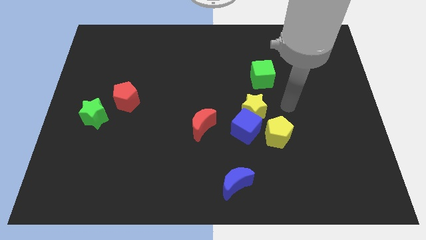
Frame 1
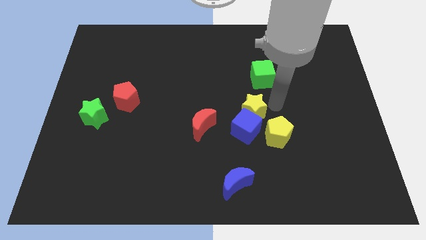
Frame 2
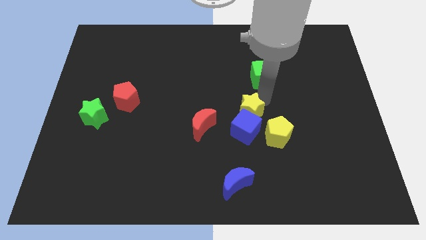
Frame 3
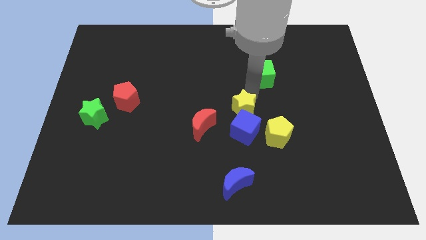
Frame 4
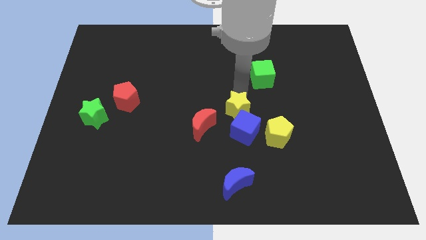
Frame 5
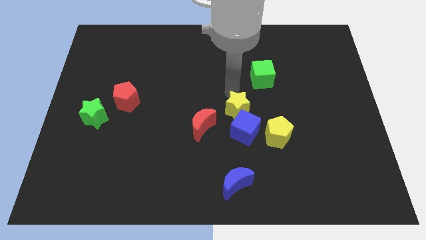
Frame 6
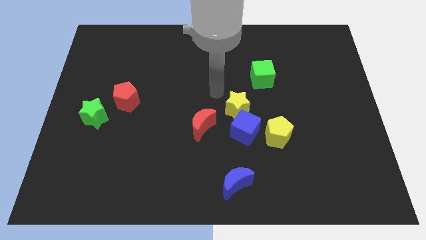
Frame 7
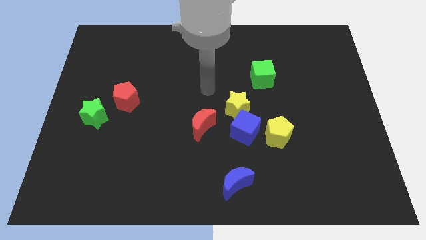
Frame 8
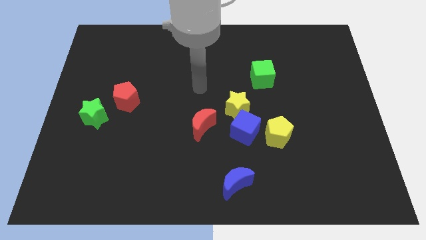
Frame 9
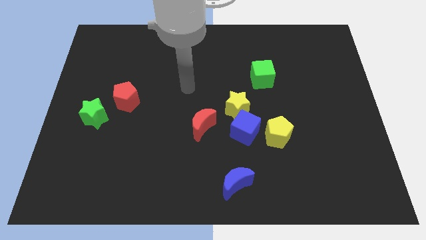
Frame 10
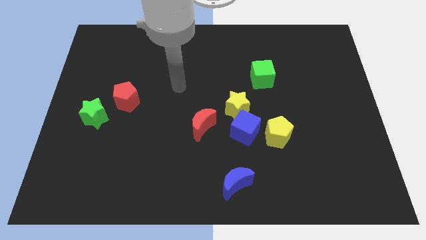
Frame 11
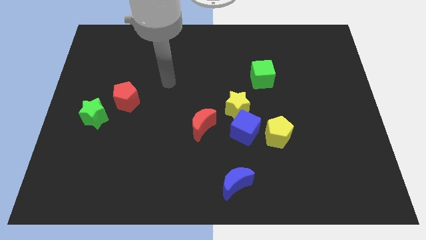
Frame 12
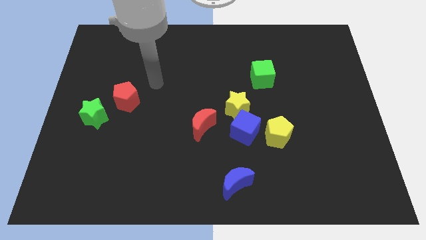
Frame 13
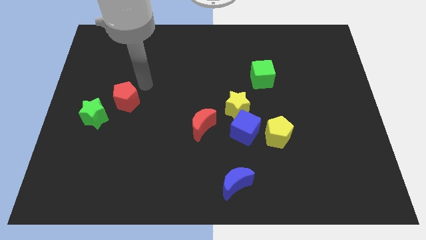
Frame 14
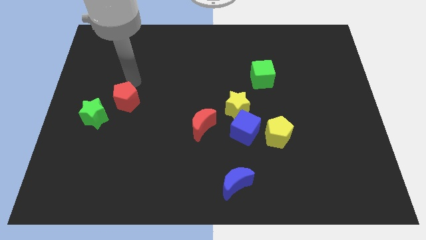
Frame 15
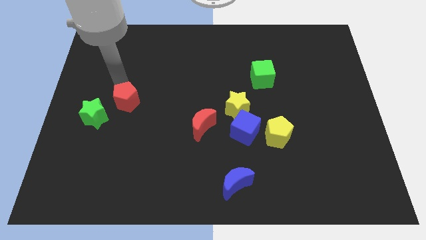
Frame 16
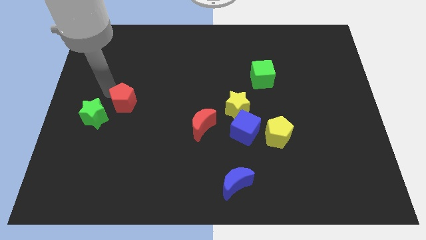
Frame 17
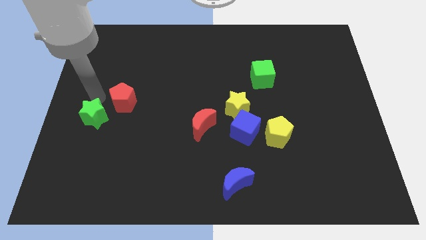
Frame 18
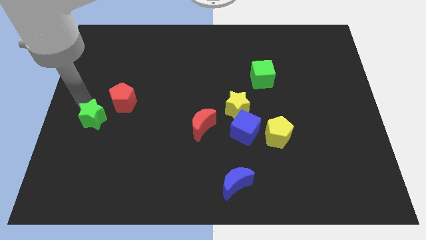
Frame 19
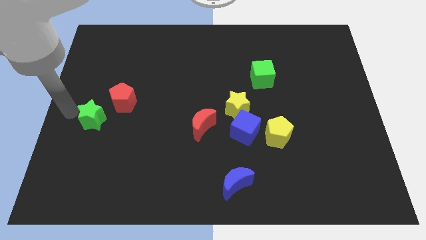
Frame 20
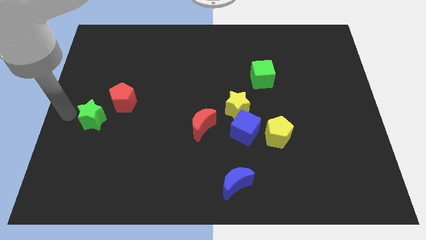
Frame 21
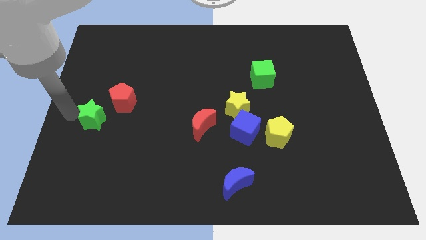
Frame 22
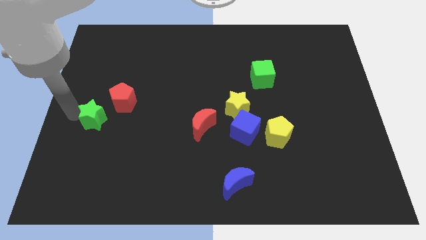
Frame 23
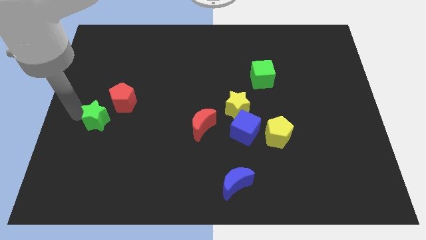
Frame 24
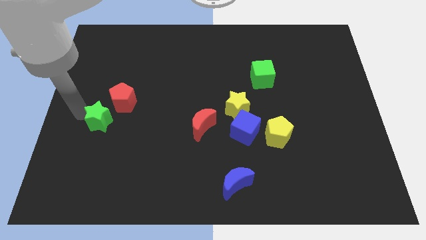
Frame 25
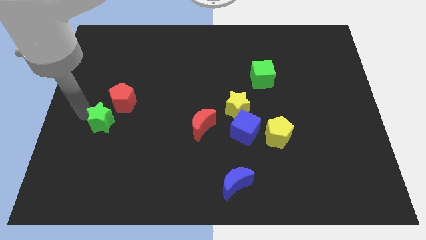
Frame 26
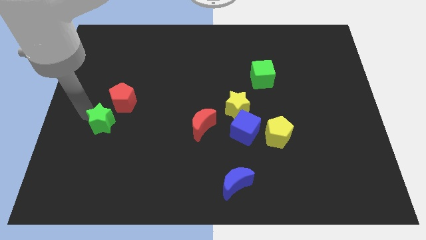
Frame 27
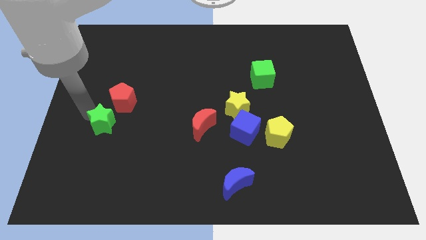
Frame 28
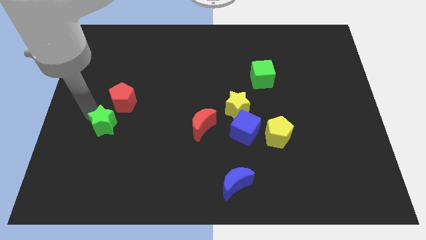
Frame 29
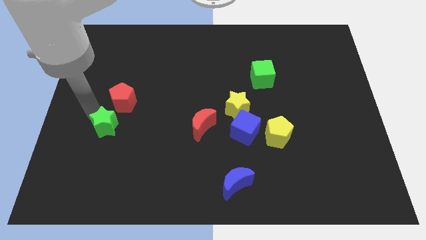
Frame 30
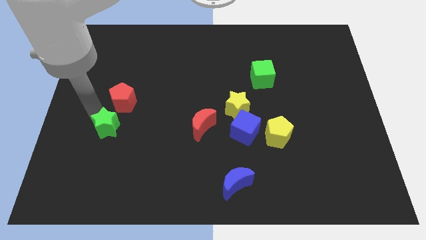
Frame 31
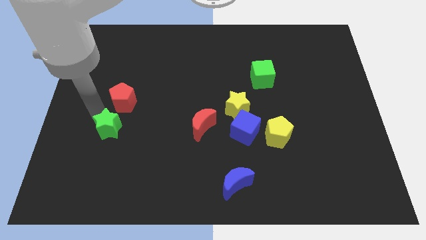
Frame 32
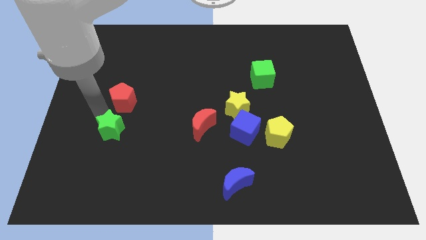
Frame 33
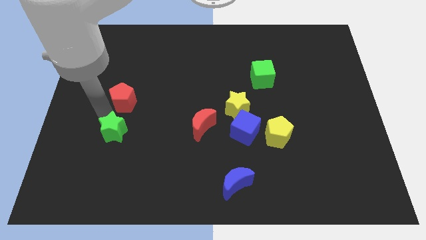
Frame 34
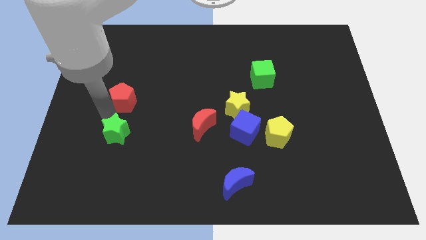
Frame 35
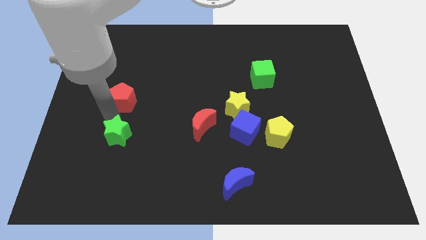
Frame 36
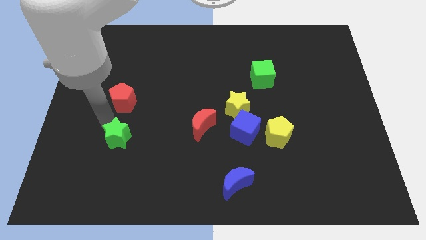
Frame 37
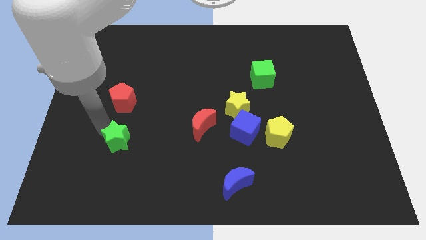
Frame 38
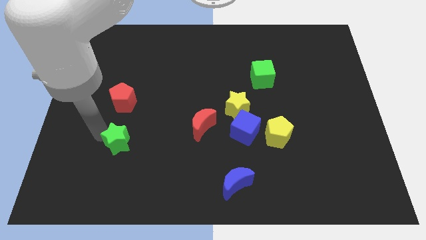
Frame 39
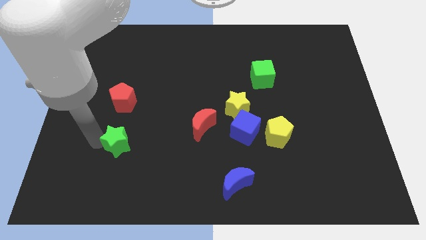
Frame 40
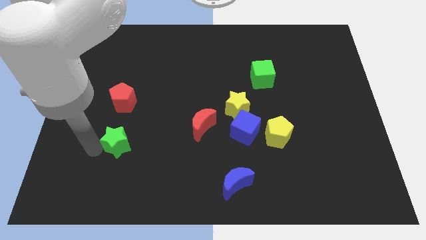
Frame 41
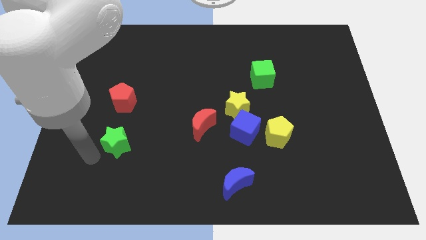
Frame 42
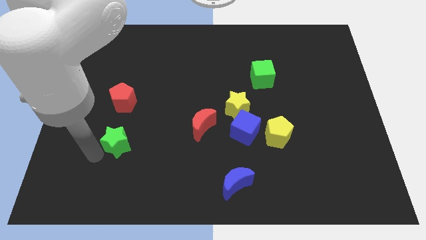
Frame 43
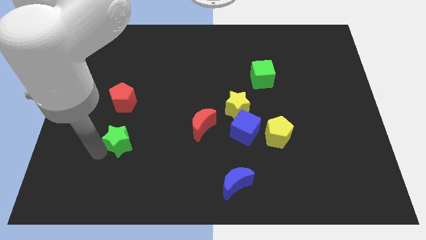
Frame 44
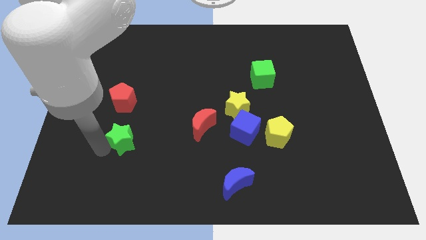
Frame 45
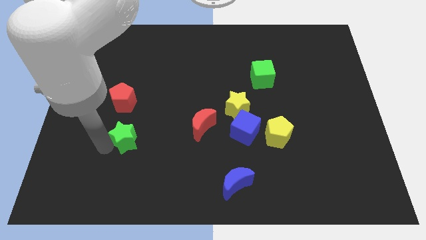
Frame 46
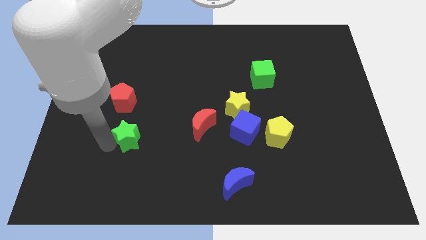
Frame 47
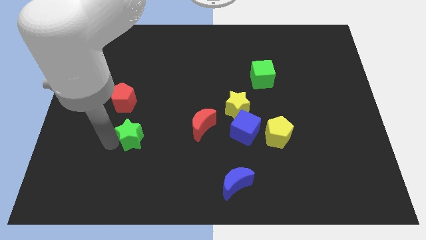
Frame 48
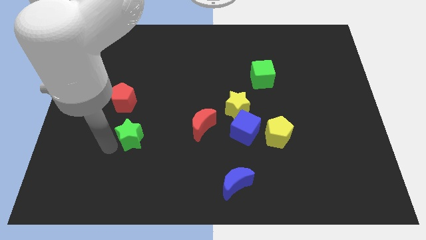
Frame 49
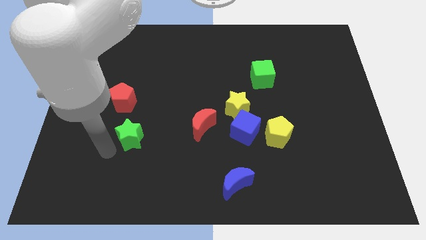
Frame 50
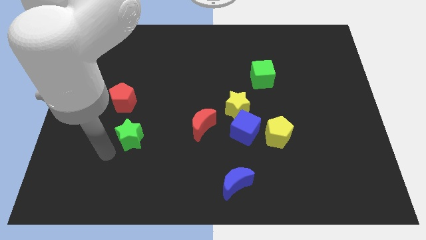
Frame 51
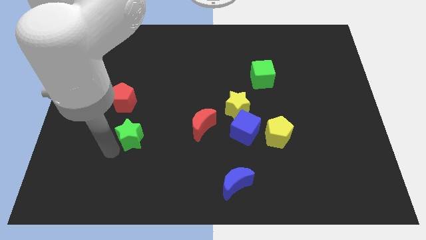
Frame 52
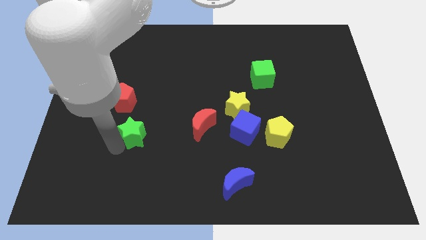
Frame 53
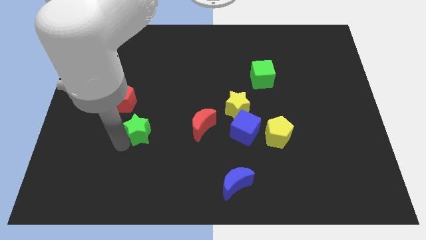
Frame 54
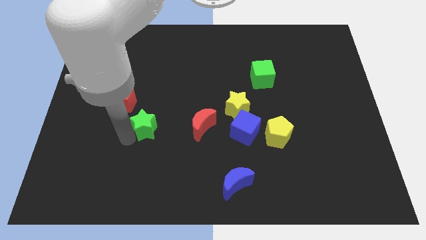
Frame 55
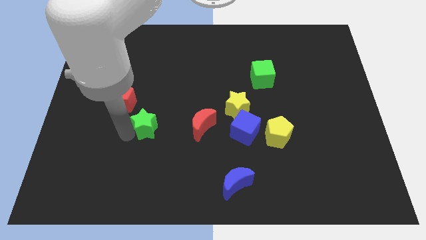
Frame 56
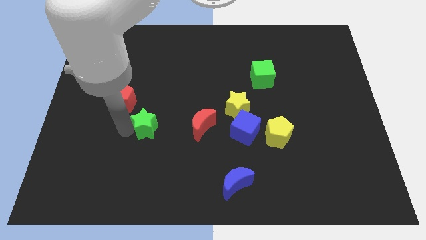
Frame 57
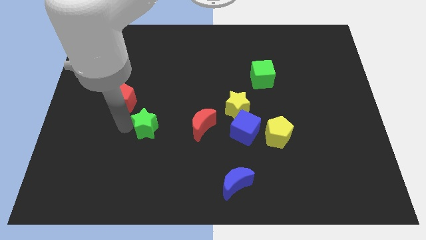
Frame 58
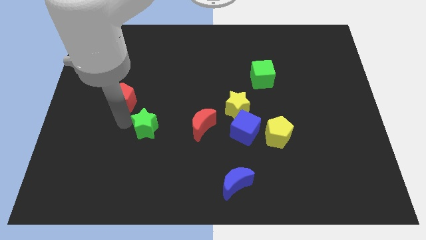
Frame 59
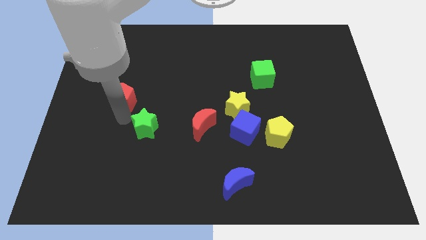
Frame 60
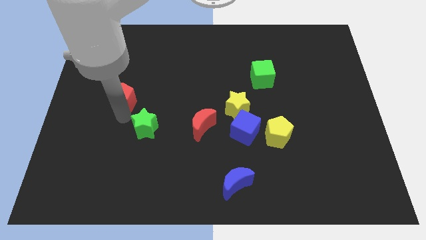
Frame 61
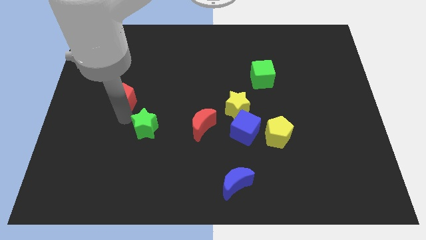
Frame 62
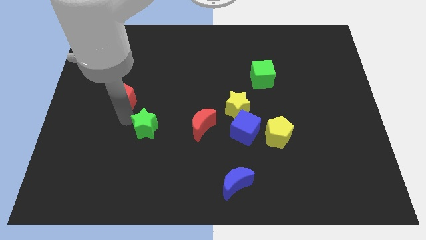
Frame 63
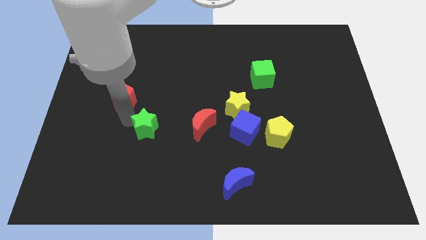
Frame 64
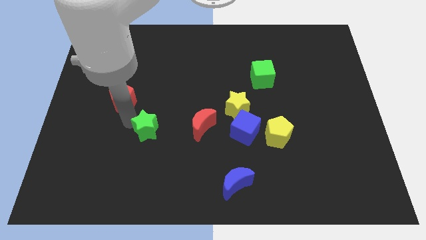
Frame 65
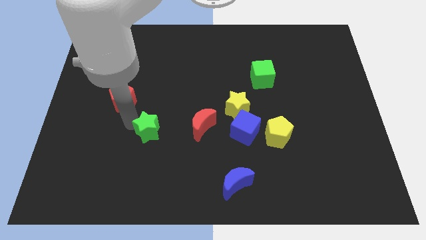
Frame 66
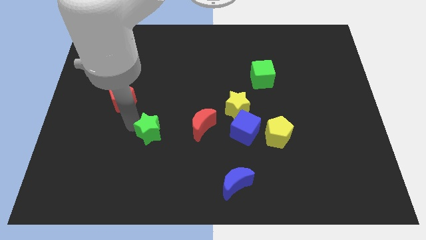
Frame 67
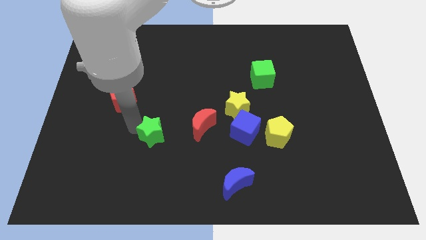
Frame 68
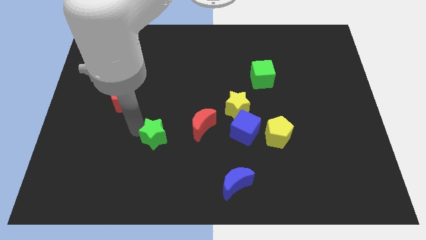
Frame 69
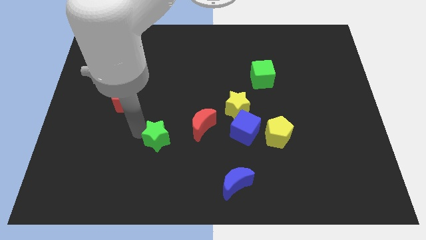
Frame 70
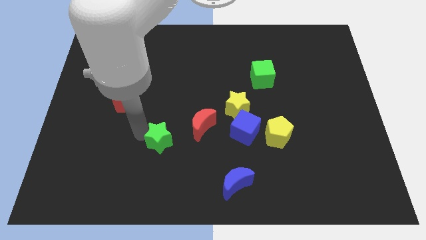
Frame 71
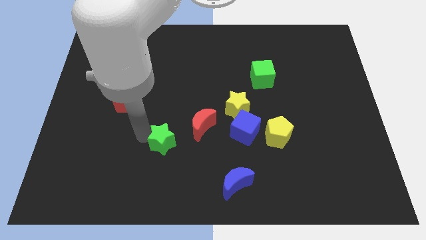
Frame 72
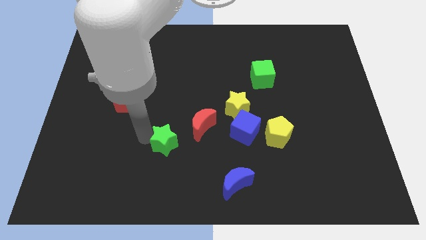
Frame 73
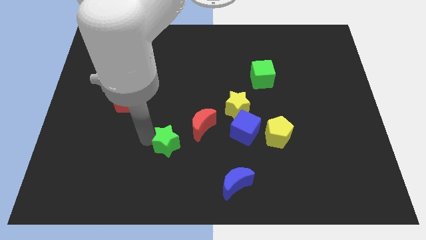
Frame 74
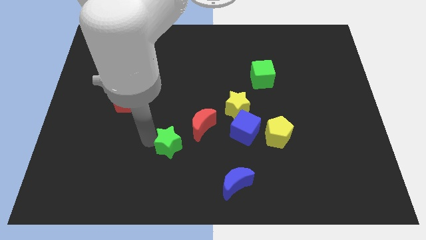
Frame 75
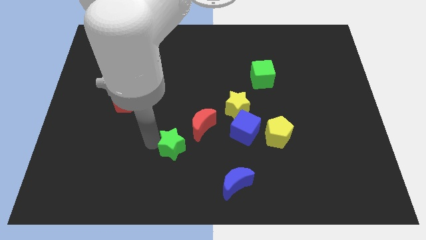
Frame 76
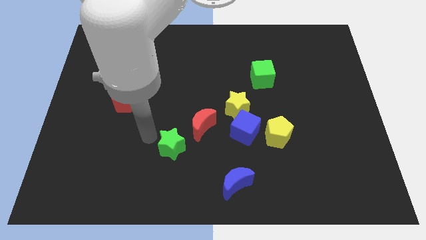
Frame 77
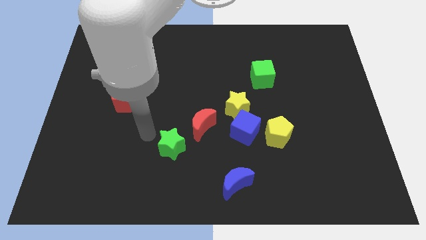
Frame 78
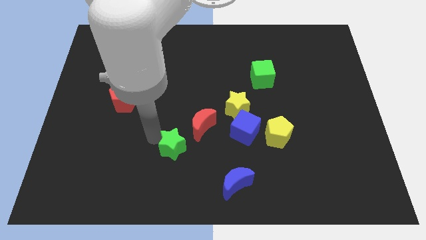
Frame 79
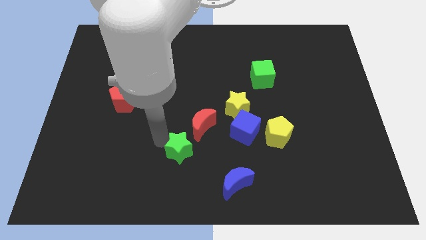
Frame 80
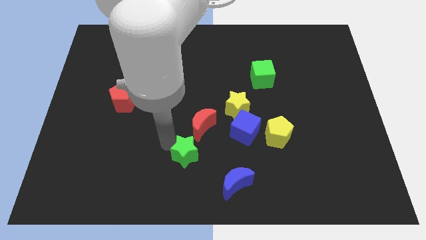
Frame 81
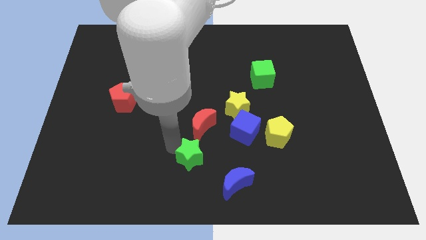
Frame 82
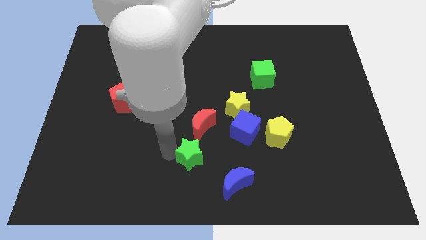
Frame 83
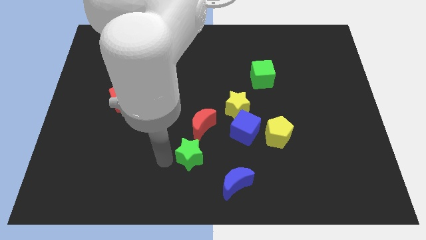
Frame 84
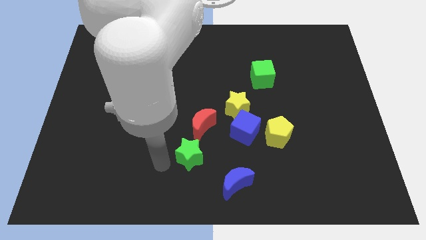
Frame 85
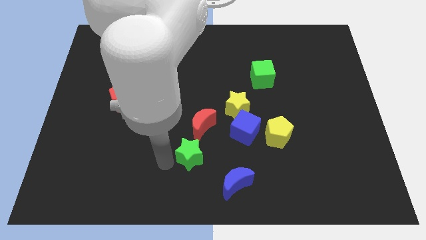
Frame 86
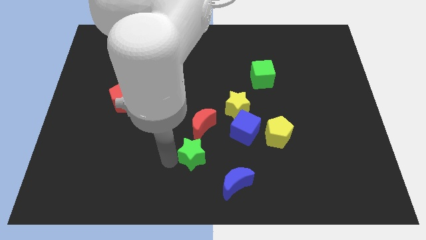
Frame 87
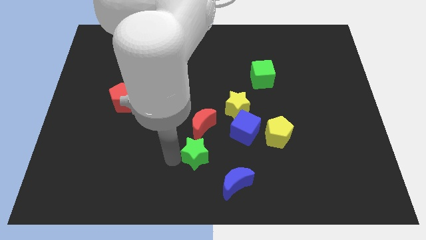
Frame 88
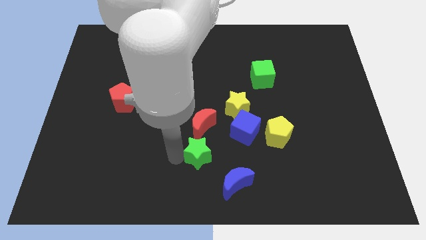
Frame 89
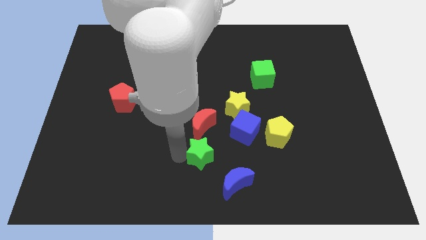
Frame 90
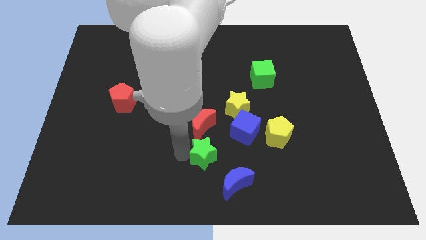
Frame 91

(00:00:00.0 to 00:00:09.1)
move the green star to the bottom right of the red moon
